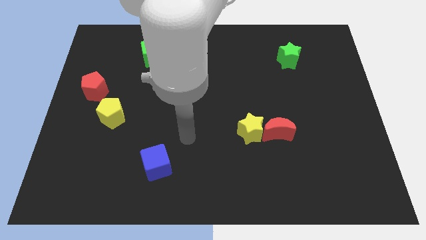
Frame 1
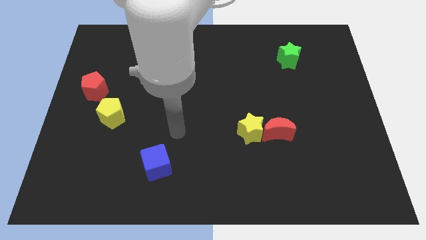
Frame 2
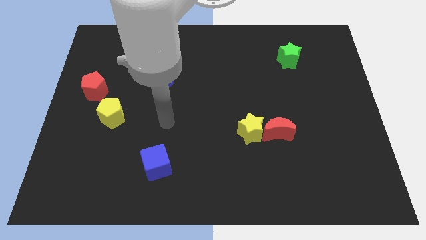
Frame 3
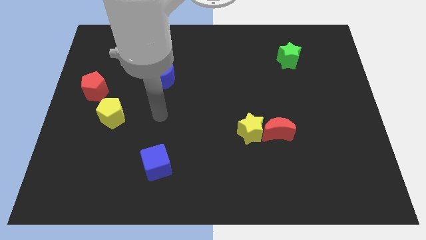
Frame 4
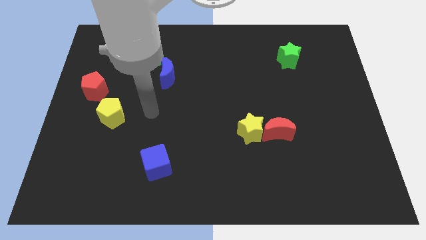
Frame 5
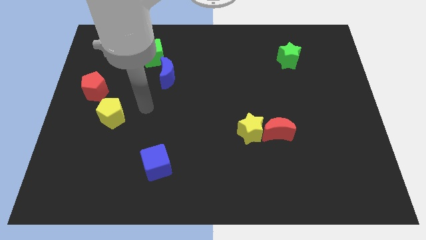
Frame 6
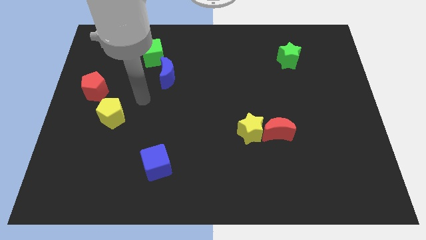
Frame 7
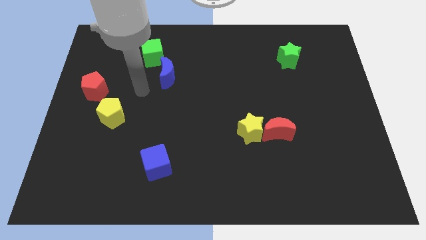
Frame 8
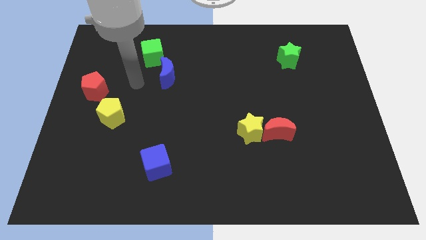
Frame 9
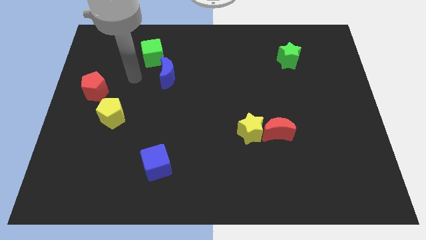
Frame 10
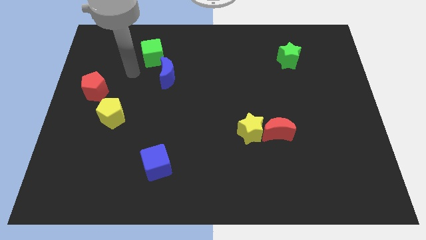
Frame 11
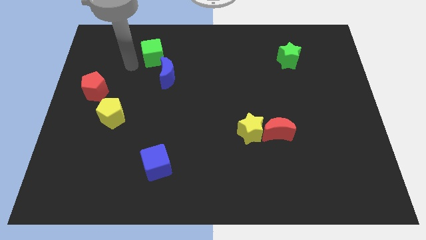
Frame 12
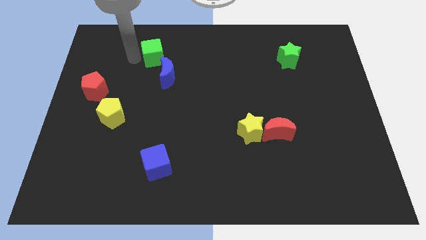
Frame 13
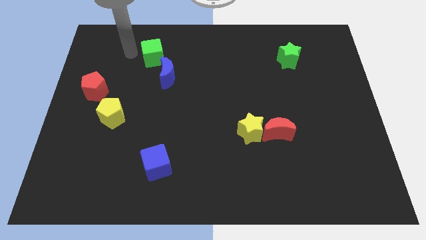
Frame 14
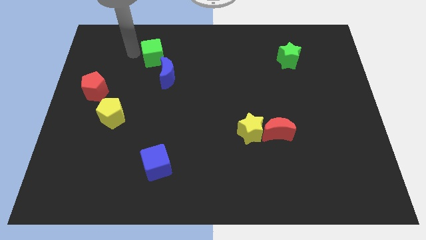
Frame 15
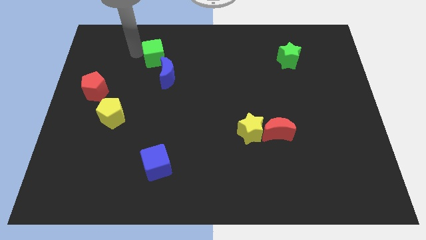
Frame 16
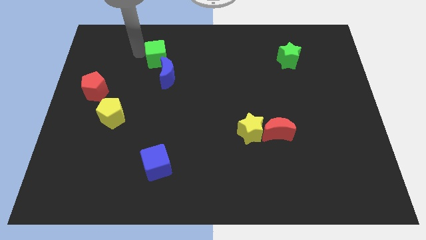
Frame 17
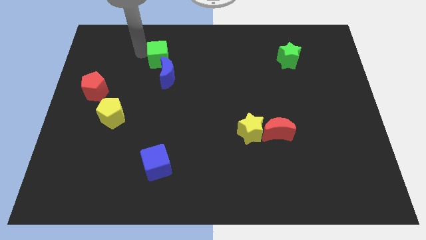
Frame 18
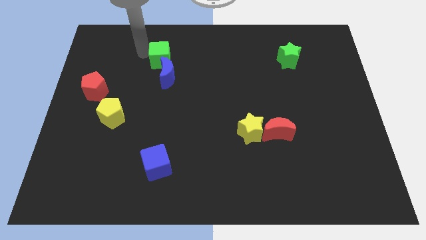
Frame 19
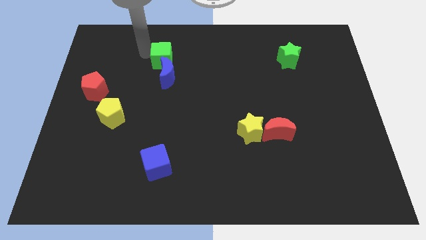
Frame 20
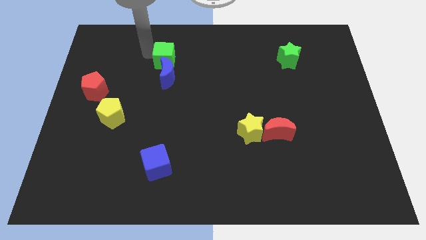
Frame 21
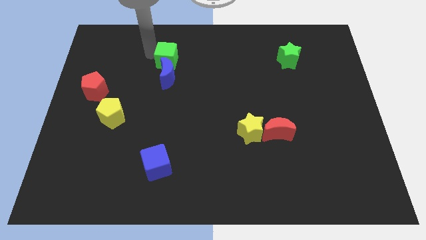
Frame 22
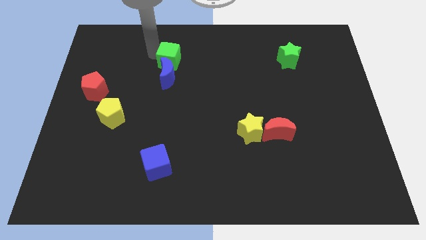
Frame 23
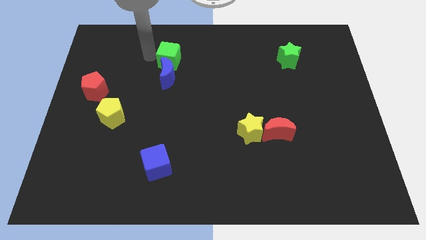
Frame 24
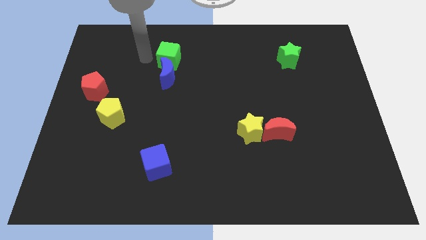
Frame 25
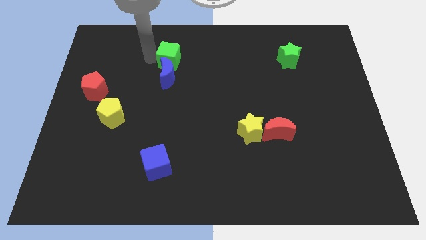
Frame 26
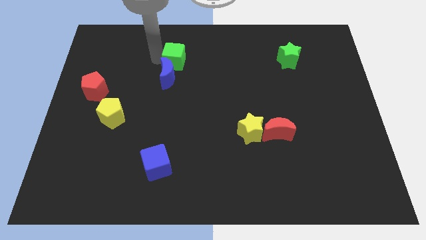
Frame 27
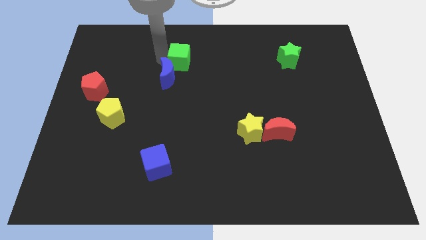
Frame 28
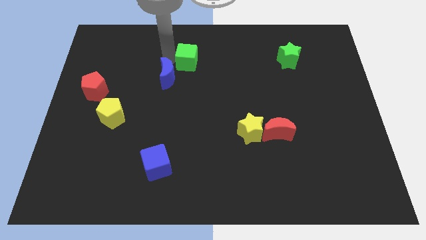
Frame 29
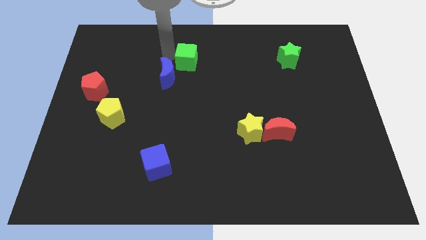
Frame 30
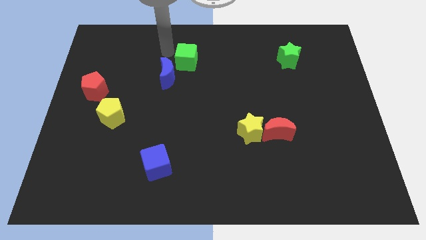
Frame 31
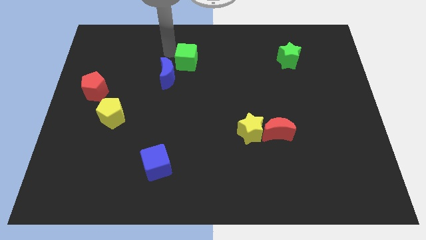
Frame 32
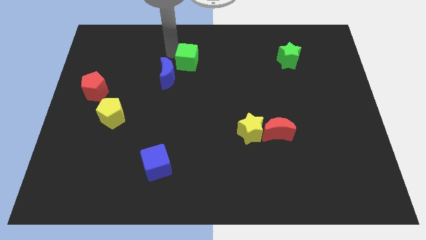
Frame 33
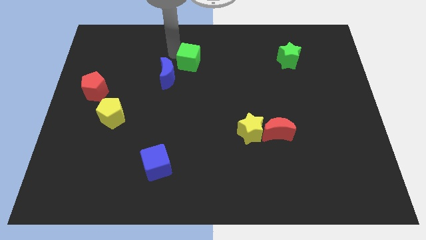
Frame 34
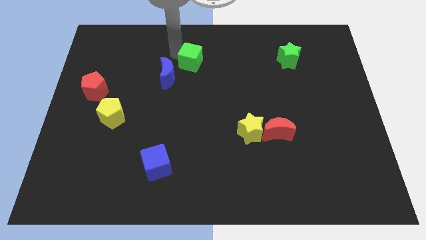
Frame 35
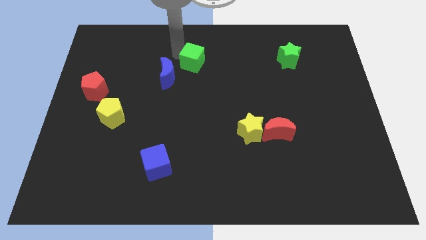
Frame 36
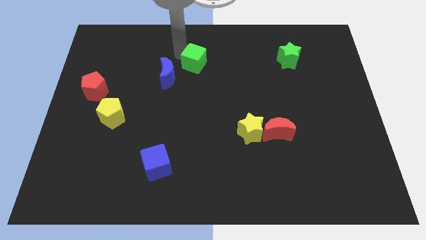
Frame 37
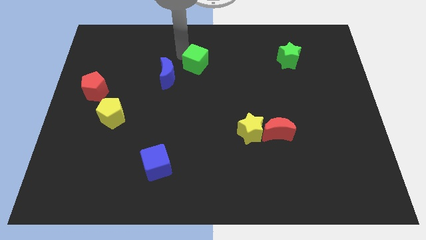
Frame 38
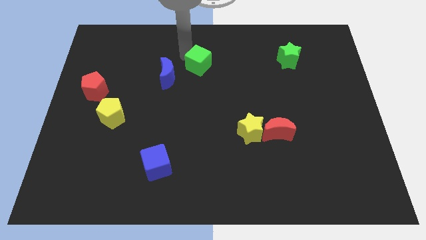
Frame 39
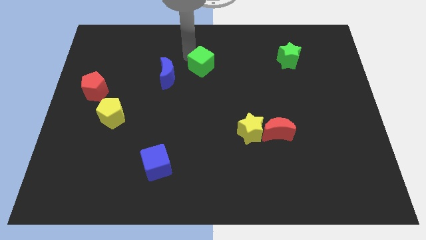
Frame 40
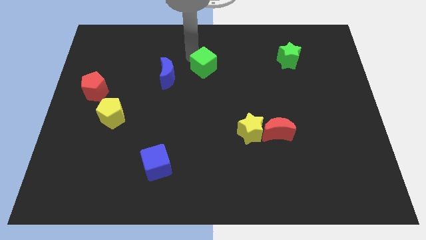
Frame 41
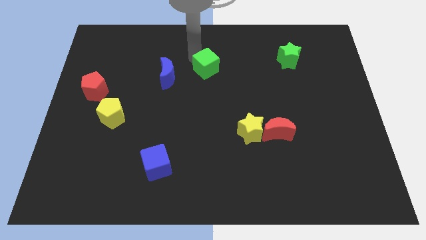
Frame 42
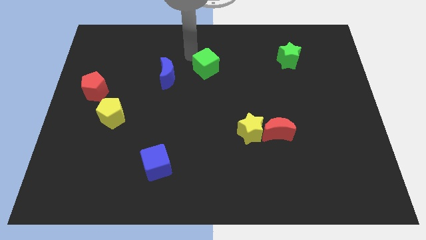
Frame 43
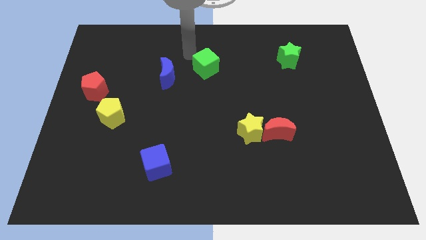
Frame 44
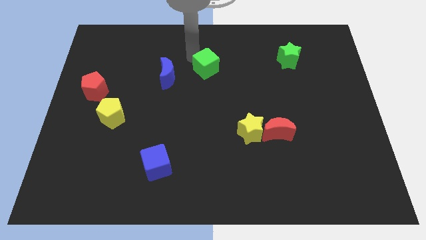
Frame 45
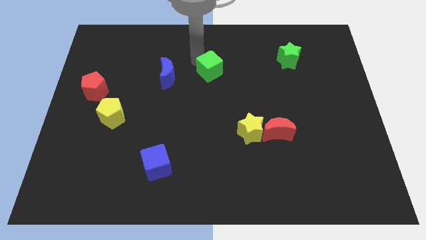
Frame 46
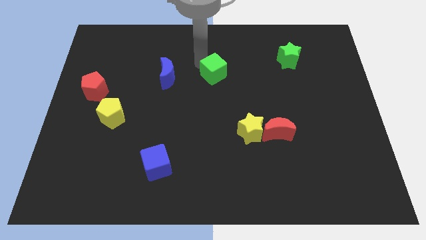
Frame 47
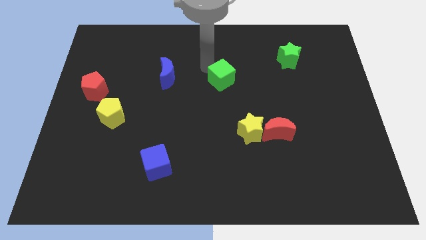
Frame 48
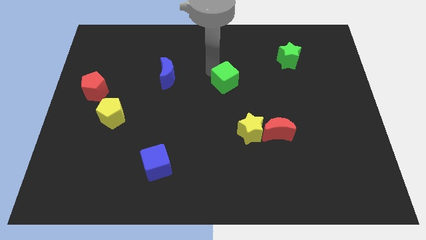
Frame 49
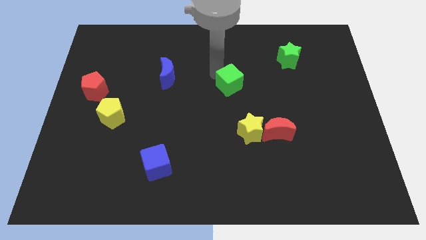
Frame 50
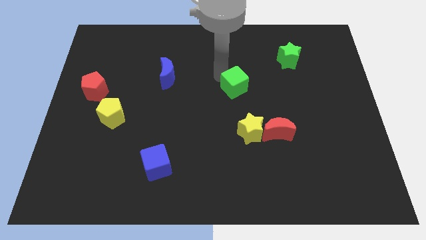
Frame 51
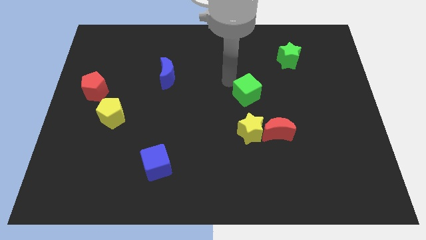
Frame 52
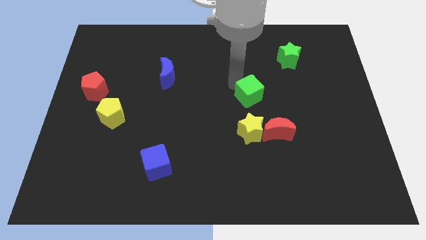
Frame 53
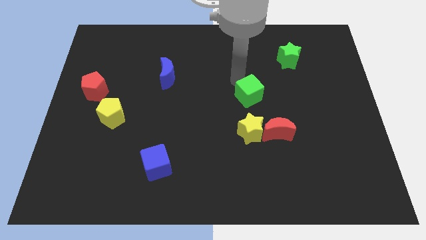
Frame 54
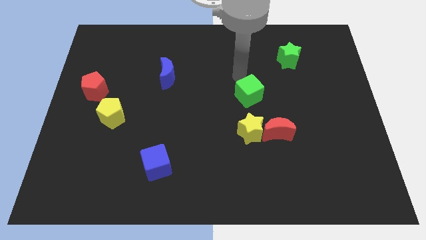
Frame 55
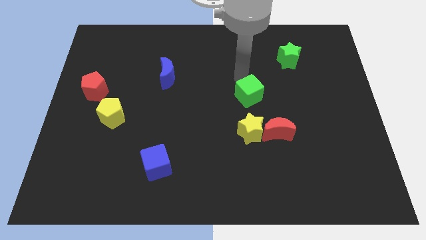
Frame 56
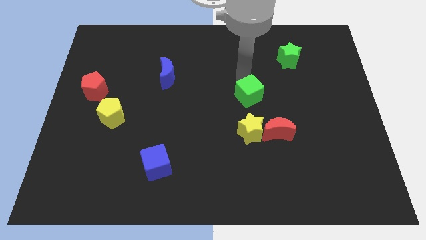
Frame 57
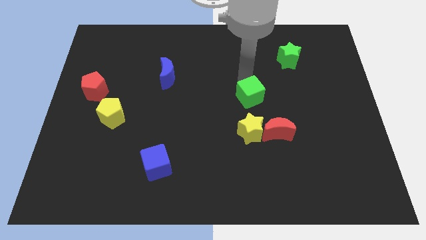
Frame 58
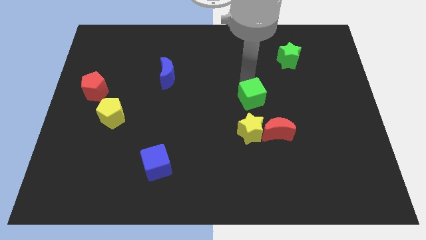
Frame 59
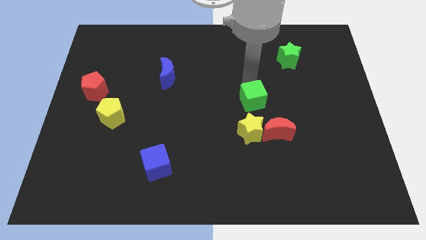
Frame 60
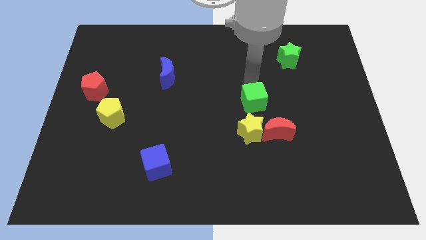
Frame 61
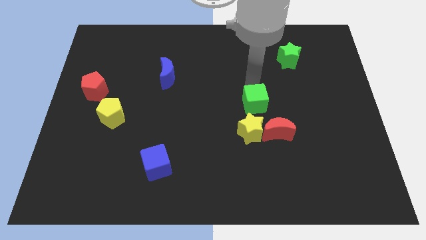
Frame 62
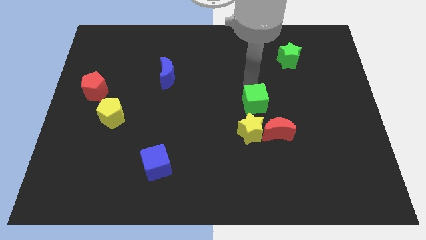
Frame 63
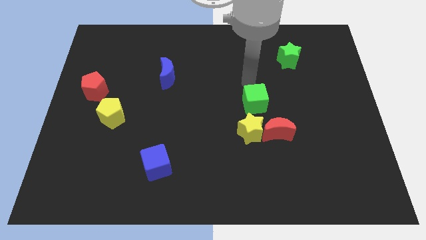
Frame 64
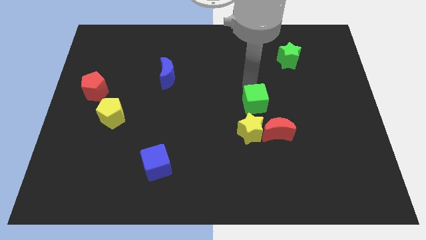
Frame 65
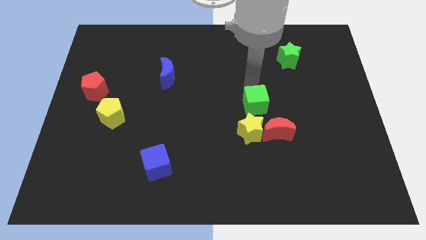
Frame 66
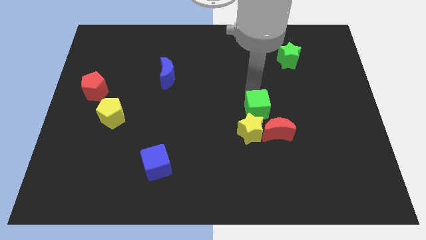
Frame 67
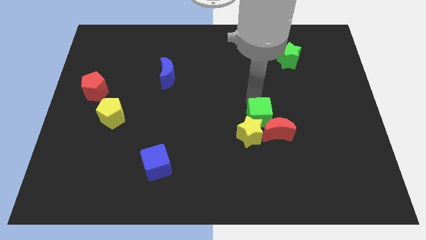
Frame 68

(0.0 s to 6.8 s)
slide the green cube to the red moon
